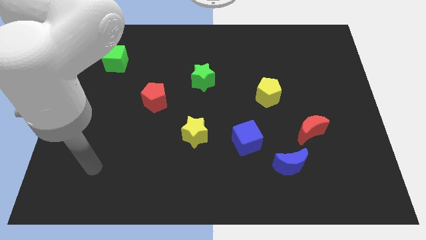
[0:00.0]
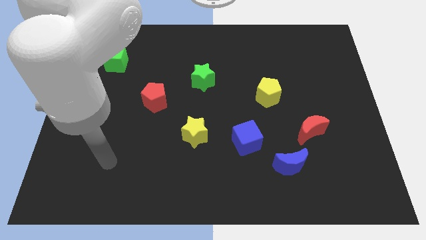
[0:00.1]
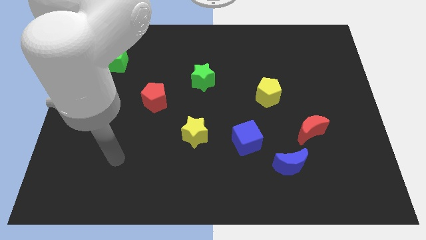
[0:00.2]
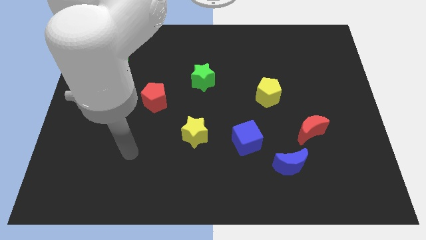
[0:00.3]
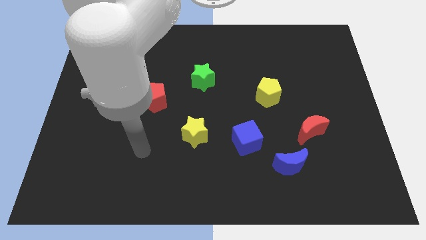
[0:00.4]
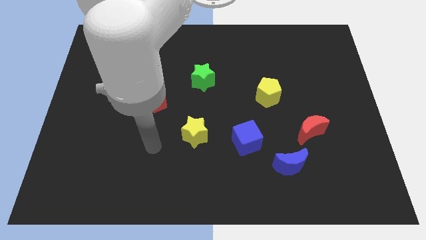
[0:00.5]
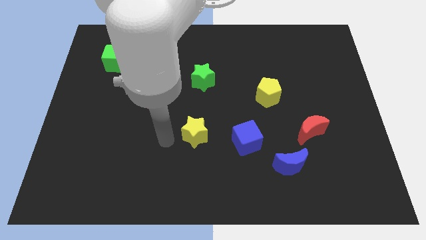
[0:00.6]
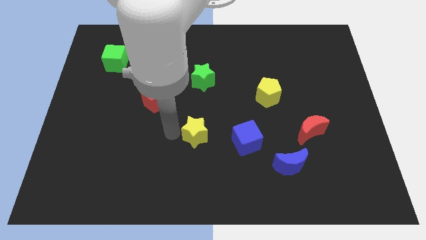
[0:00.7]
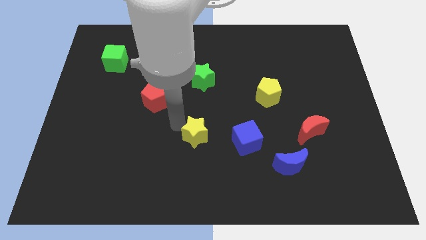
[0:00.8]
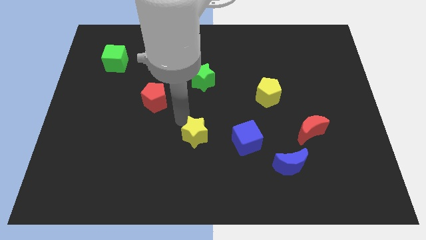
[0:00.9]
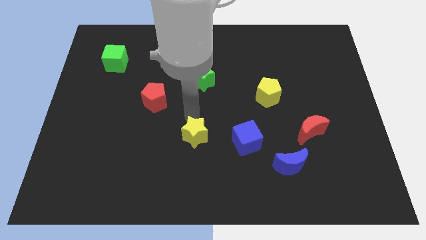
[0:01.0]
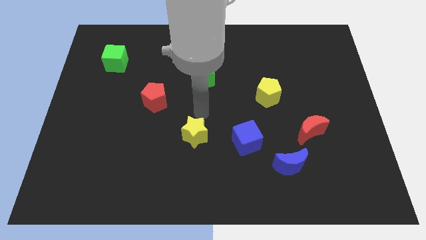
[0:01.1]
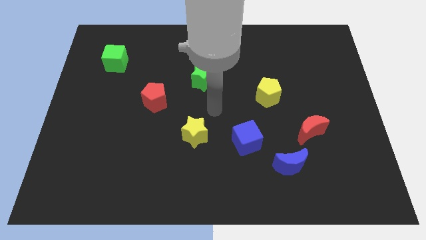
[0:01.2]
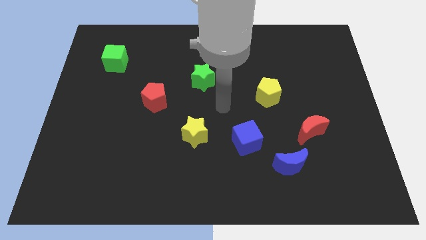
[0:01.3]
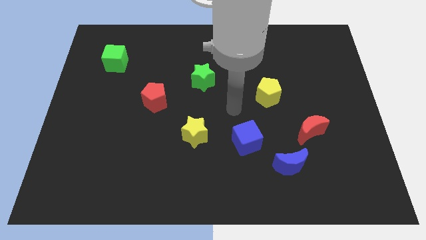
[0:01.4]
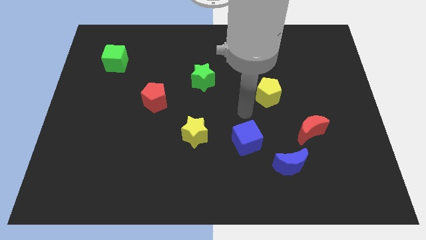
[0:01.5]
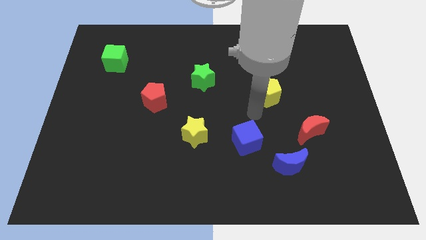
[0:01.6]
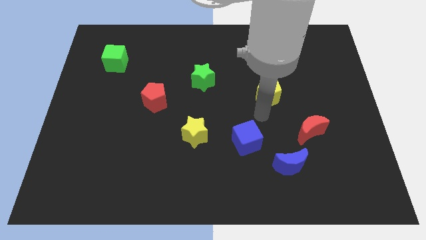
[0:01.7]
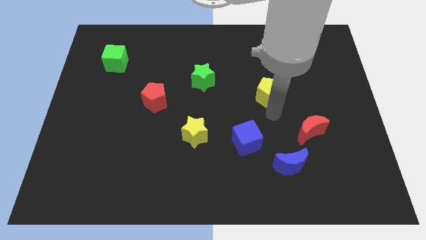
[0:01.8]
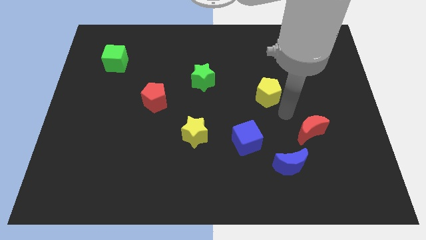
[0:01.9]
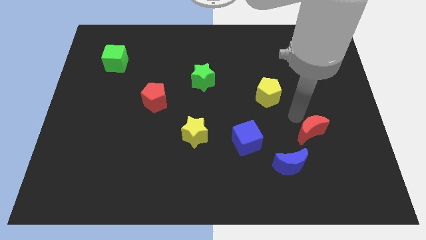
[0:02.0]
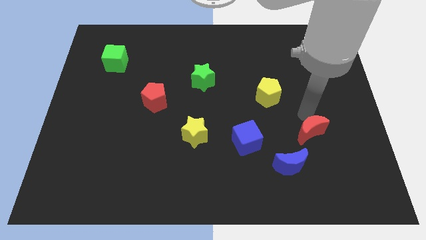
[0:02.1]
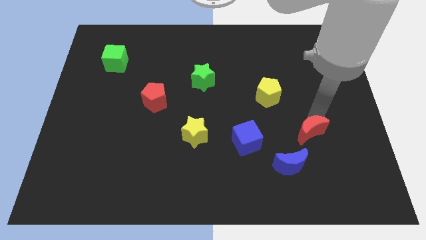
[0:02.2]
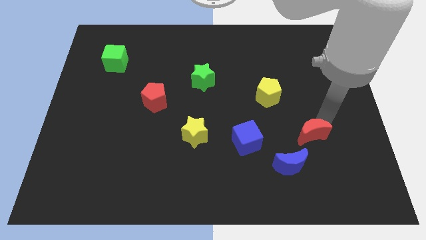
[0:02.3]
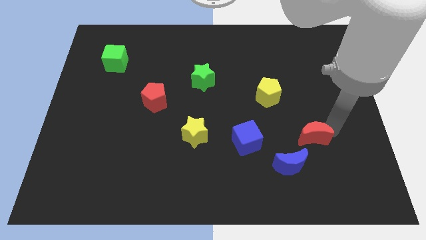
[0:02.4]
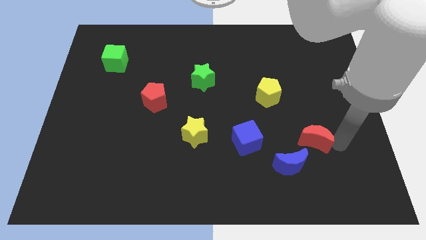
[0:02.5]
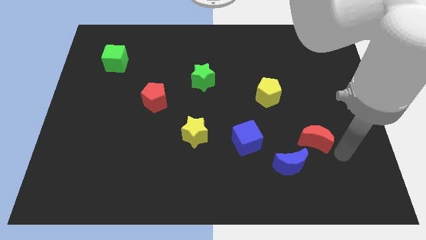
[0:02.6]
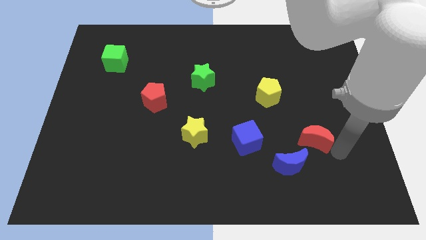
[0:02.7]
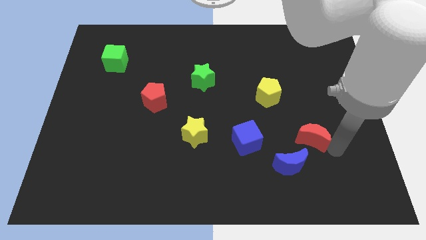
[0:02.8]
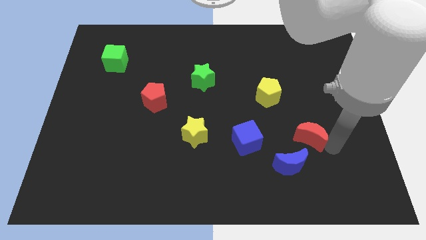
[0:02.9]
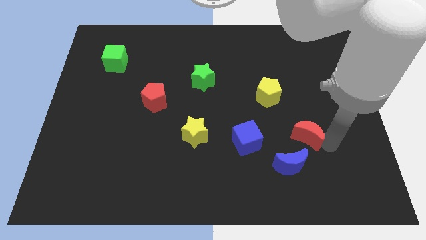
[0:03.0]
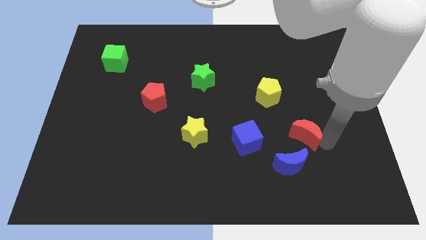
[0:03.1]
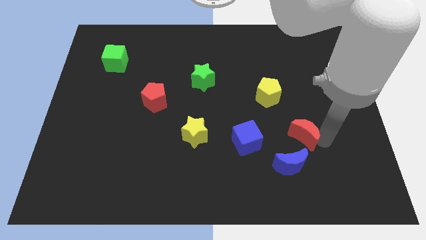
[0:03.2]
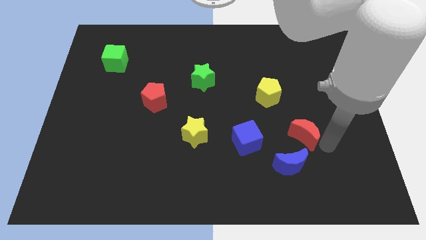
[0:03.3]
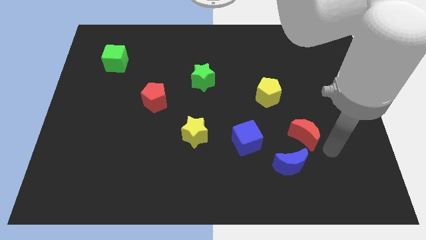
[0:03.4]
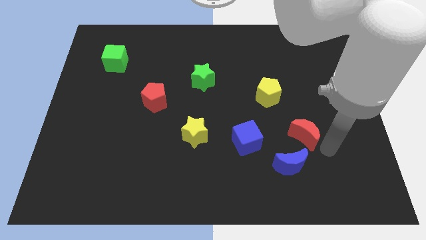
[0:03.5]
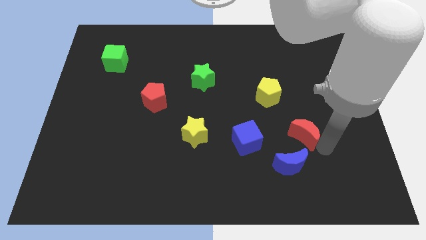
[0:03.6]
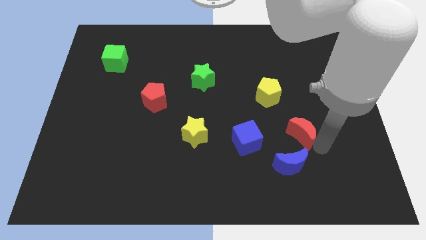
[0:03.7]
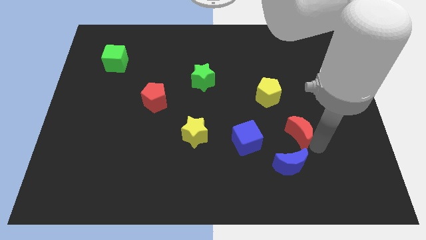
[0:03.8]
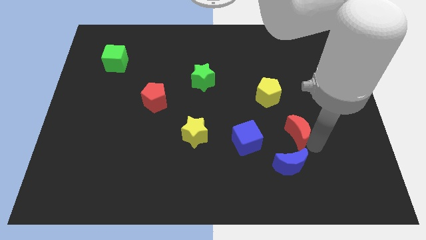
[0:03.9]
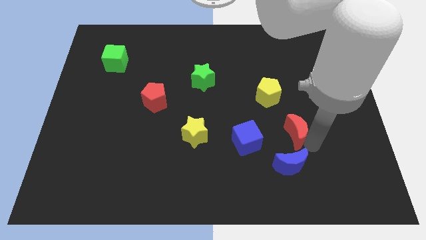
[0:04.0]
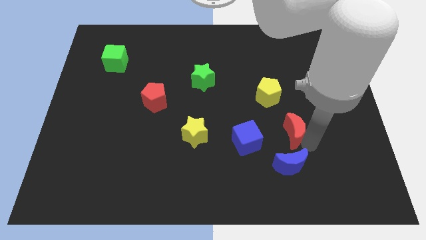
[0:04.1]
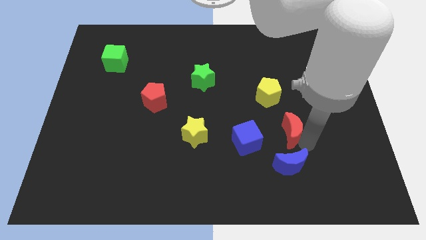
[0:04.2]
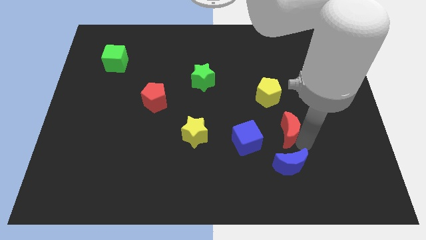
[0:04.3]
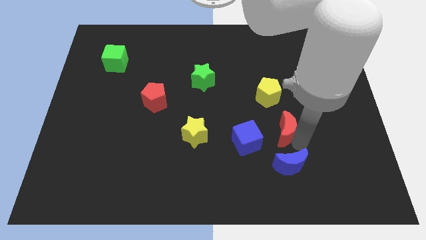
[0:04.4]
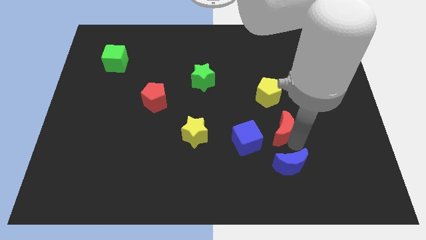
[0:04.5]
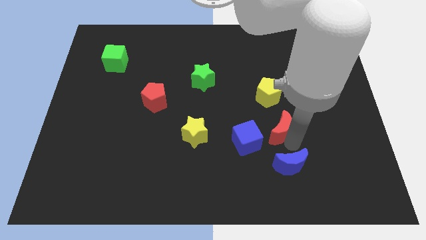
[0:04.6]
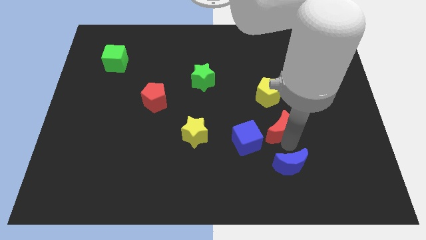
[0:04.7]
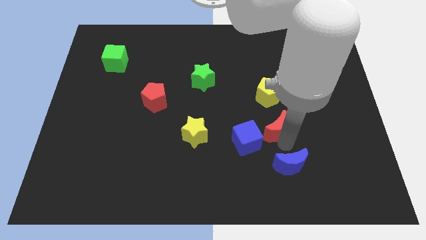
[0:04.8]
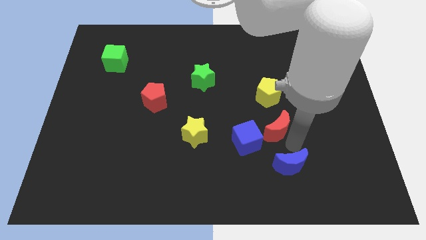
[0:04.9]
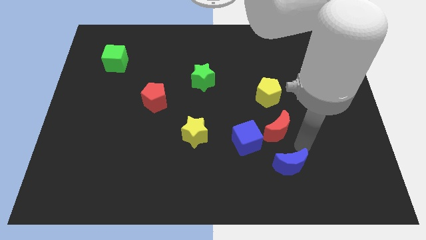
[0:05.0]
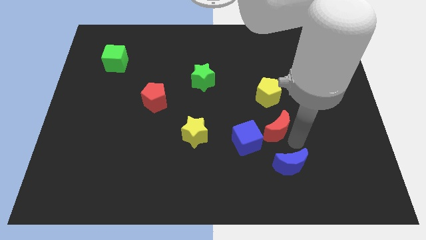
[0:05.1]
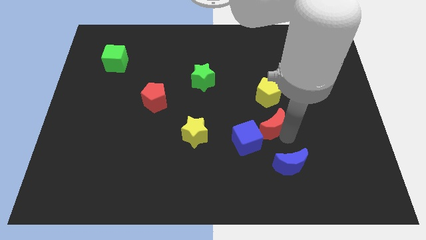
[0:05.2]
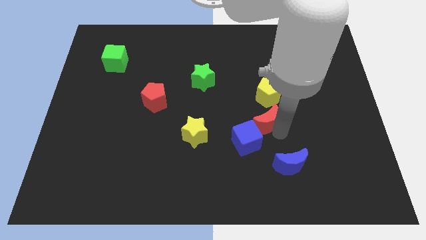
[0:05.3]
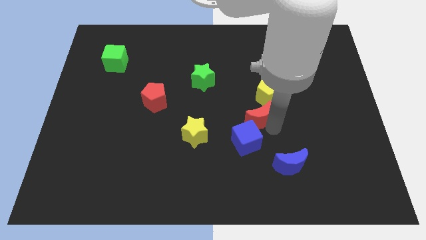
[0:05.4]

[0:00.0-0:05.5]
put the red moon to the bottom left of the yellow pentagon
